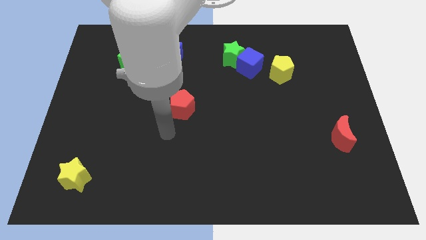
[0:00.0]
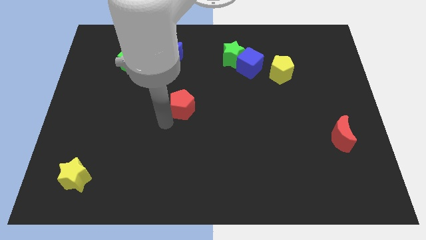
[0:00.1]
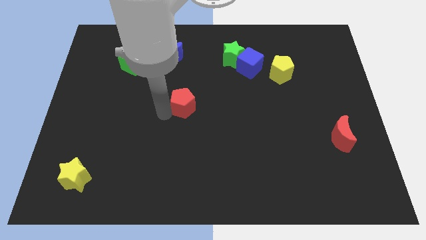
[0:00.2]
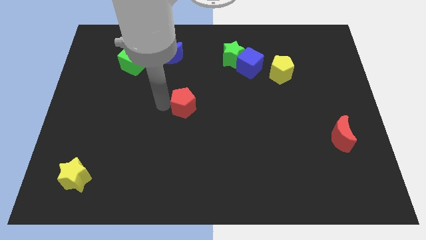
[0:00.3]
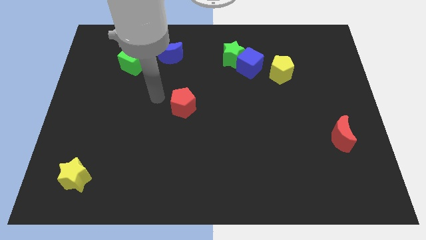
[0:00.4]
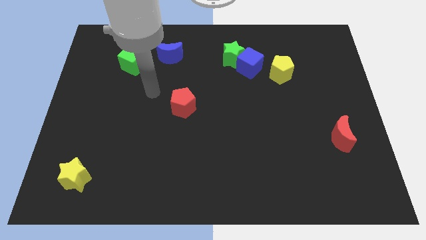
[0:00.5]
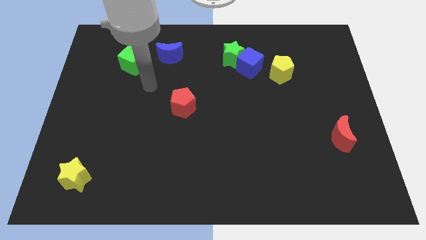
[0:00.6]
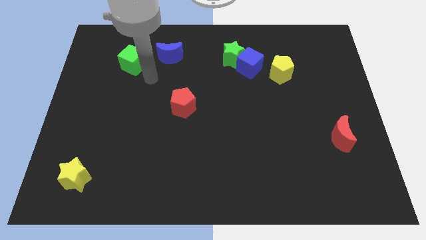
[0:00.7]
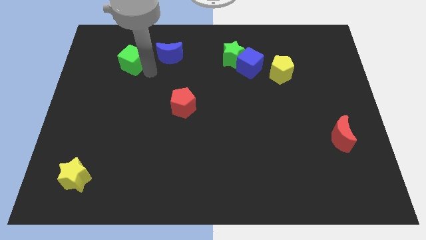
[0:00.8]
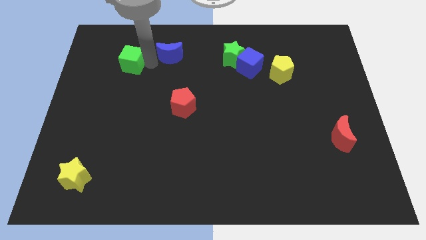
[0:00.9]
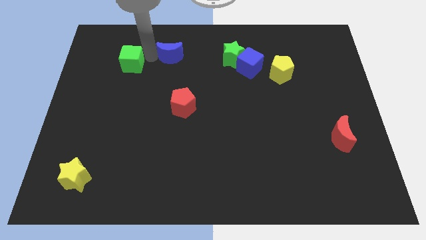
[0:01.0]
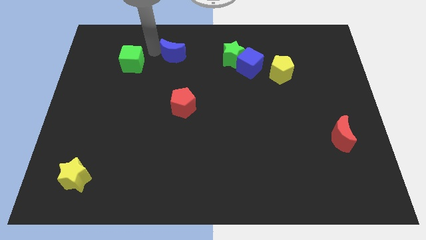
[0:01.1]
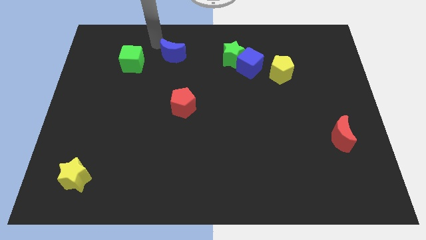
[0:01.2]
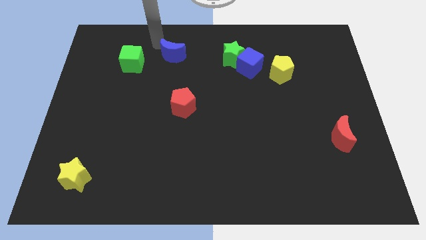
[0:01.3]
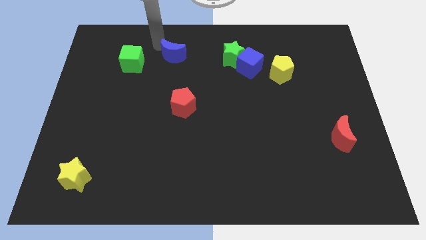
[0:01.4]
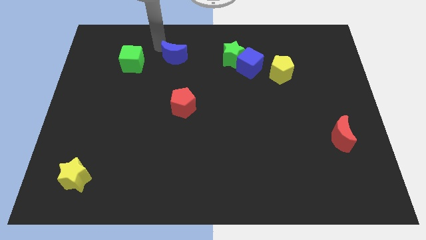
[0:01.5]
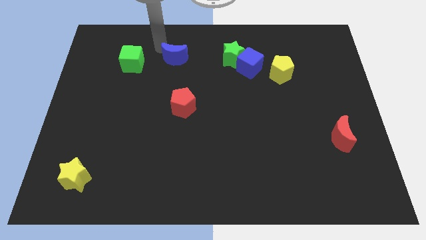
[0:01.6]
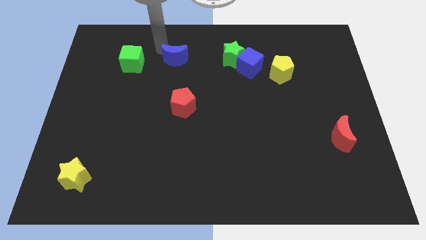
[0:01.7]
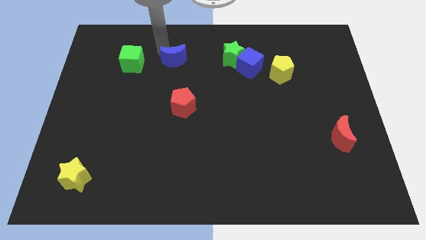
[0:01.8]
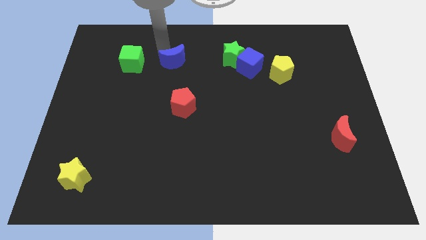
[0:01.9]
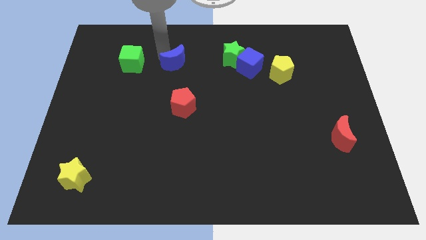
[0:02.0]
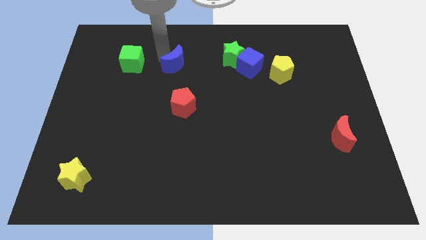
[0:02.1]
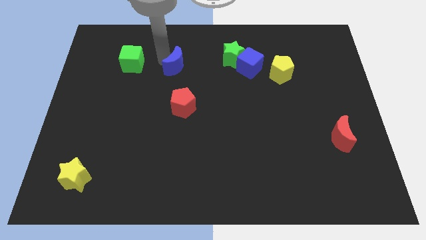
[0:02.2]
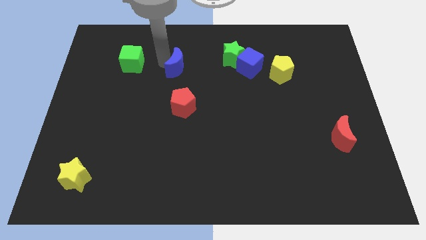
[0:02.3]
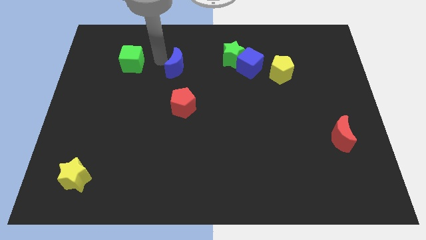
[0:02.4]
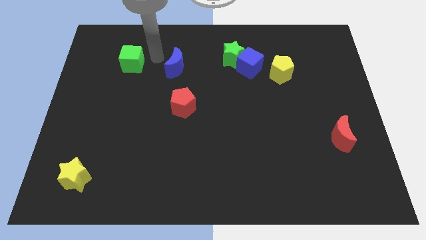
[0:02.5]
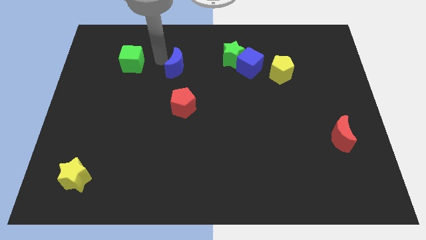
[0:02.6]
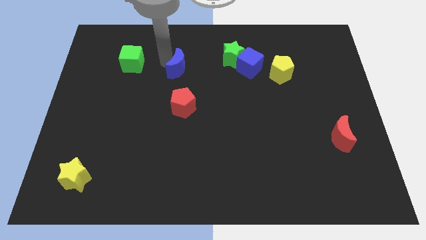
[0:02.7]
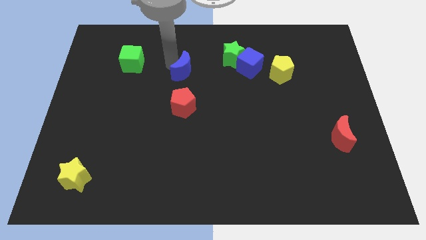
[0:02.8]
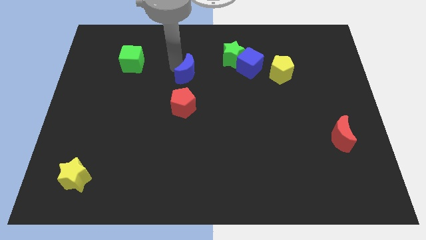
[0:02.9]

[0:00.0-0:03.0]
slightly move the blue moon down and to the right

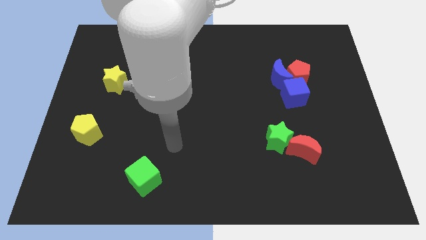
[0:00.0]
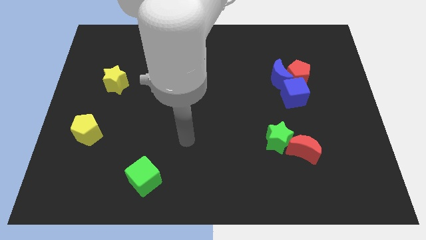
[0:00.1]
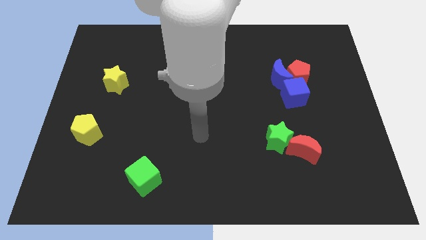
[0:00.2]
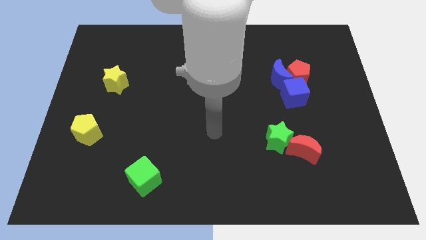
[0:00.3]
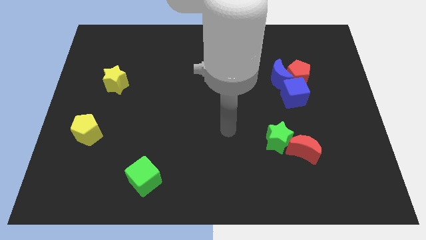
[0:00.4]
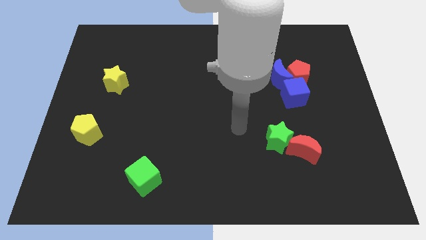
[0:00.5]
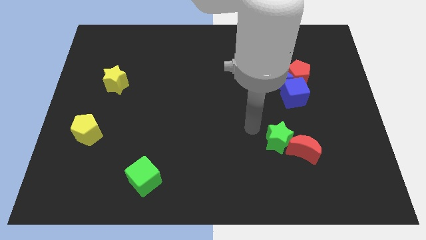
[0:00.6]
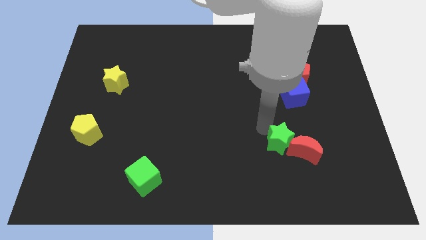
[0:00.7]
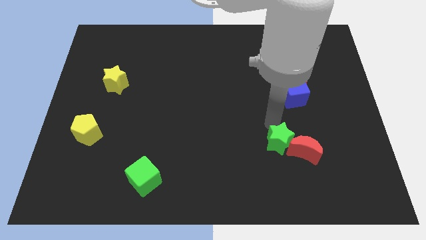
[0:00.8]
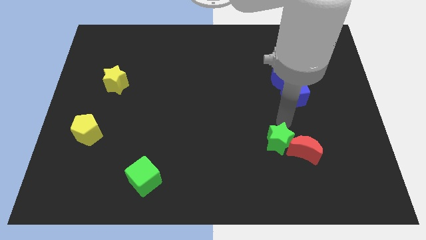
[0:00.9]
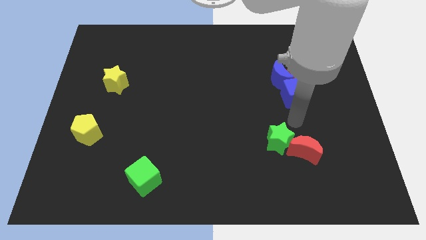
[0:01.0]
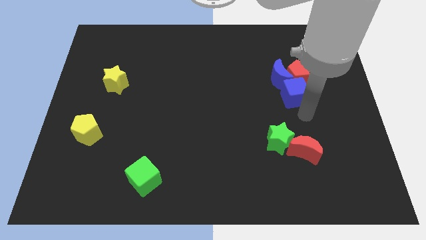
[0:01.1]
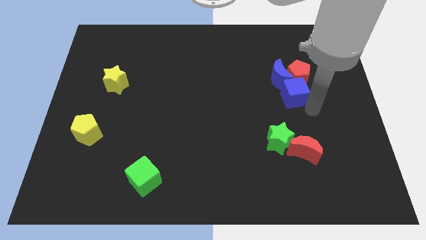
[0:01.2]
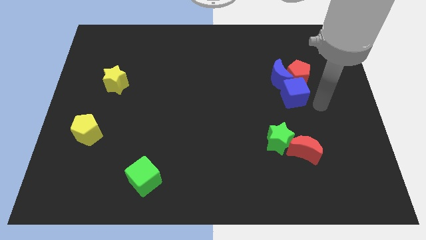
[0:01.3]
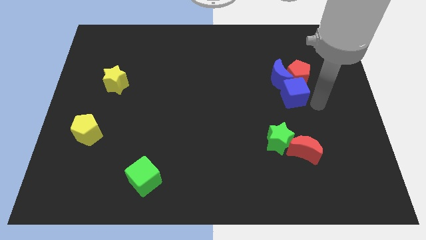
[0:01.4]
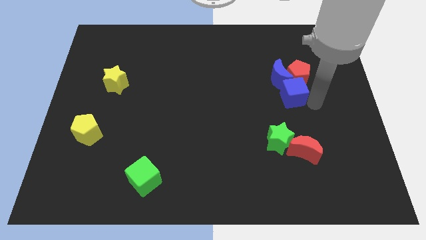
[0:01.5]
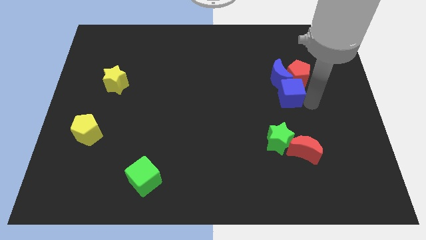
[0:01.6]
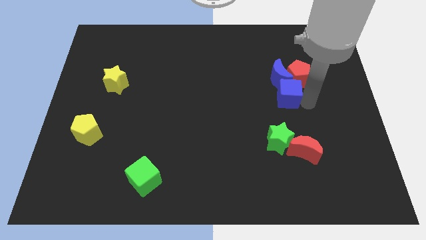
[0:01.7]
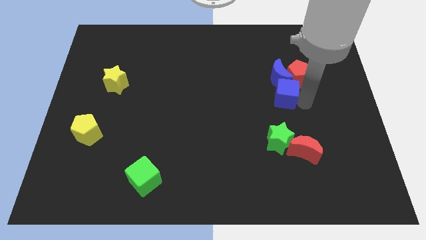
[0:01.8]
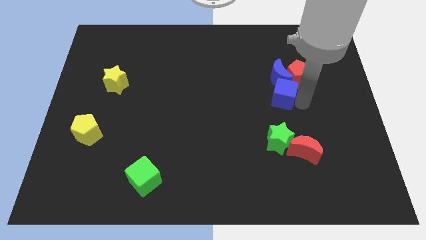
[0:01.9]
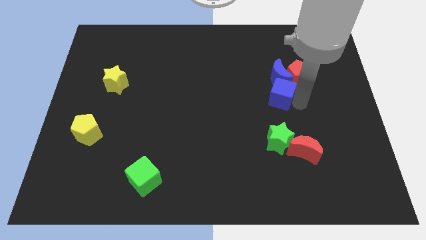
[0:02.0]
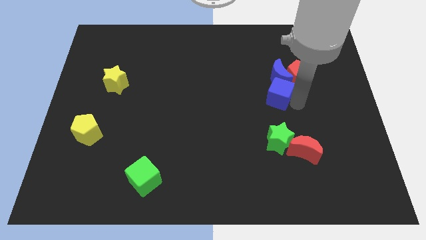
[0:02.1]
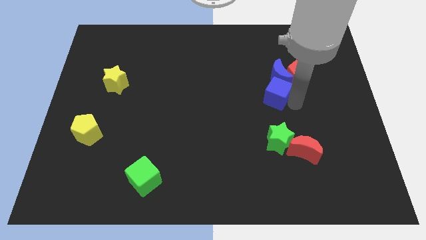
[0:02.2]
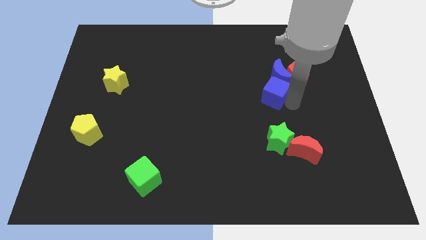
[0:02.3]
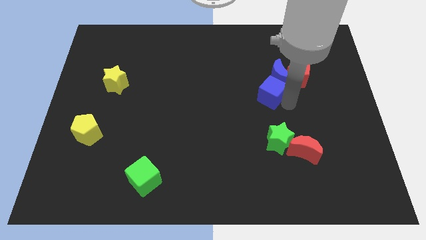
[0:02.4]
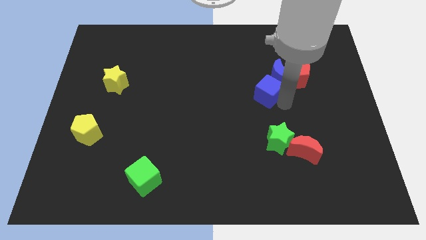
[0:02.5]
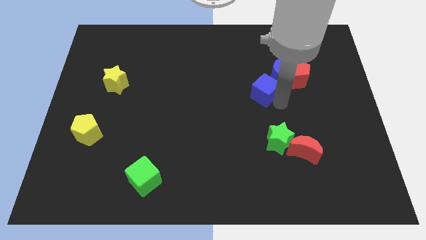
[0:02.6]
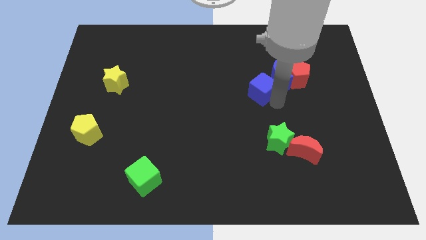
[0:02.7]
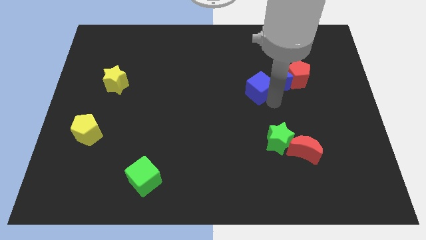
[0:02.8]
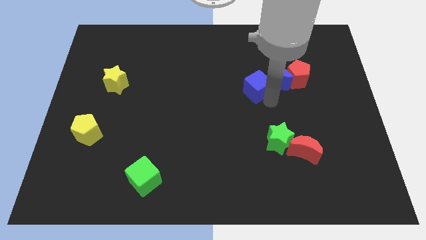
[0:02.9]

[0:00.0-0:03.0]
push the blue cube up and then to the left somewhat

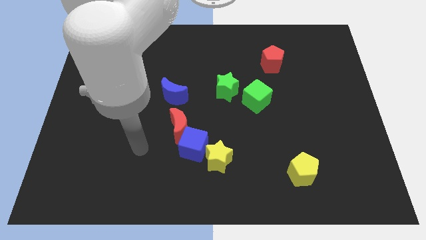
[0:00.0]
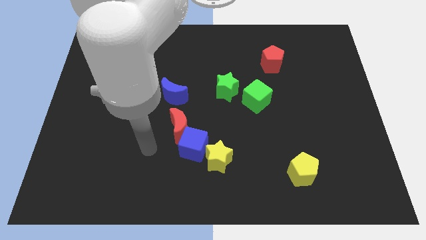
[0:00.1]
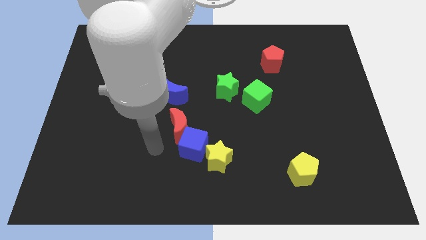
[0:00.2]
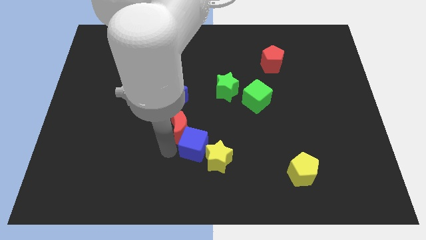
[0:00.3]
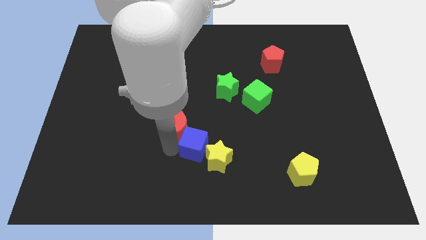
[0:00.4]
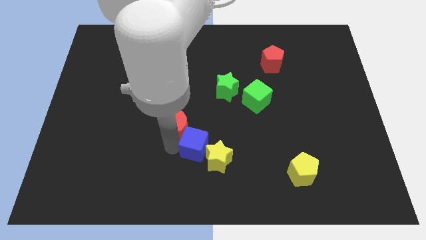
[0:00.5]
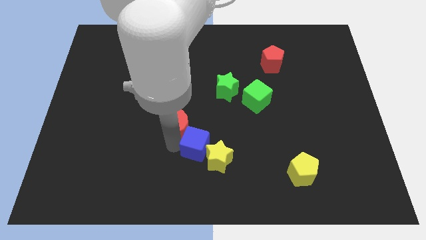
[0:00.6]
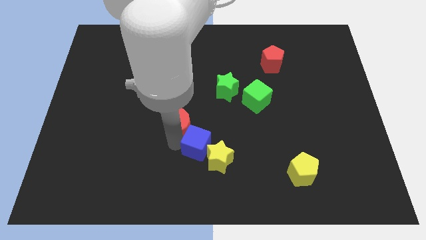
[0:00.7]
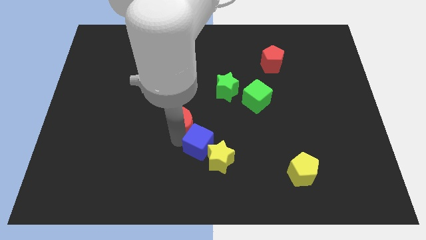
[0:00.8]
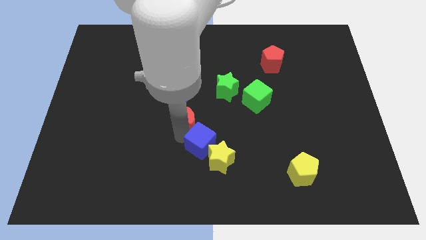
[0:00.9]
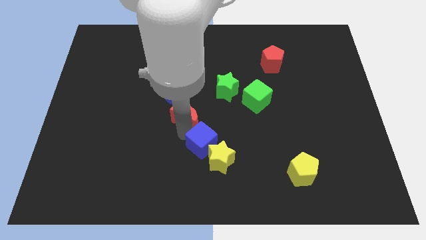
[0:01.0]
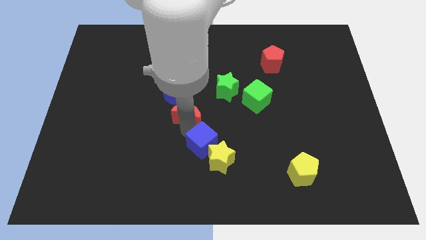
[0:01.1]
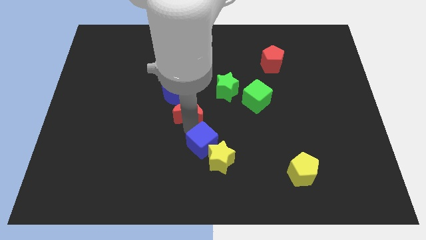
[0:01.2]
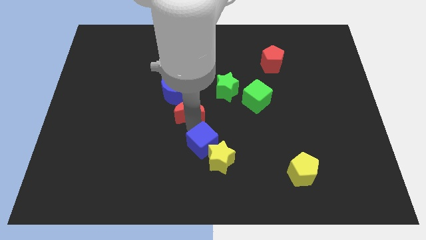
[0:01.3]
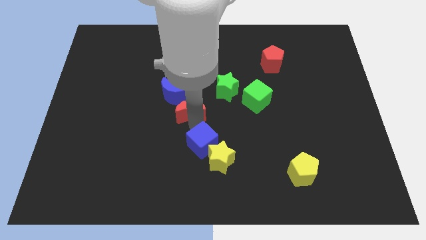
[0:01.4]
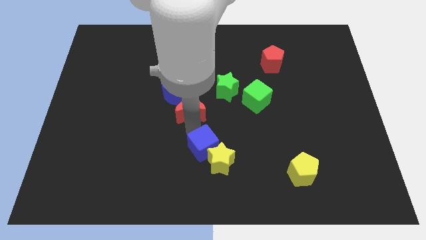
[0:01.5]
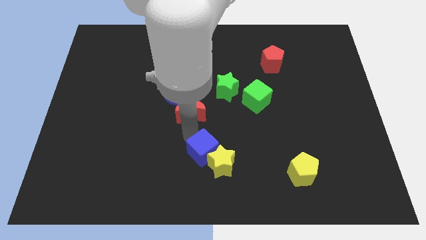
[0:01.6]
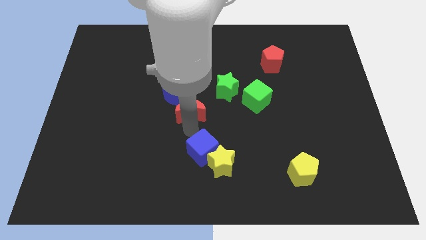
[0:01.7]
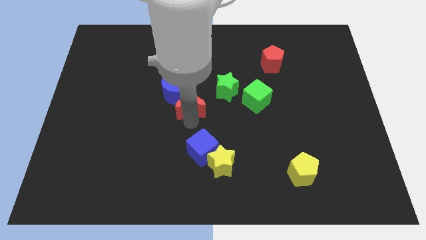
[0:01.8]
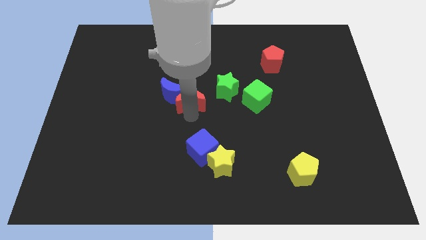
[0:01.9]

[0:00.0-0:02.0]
slightly slide the red moon upwards
